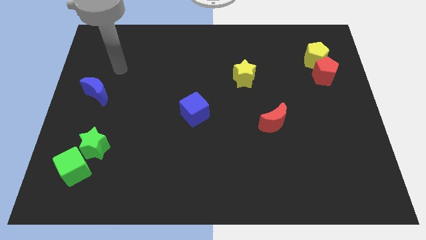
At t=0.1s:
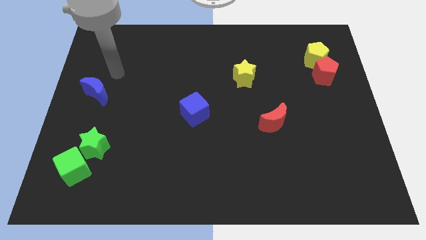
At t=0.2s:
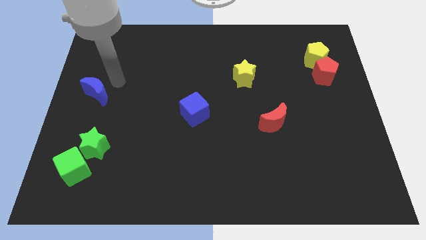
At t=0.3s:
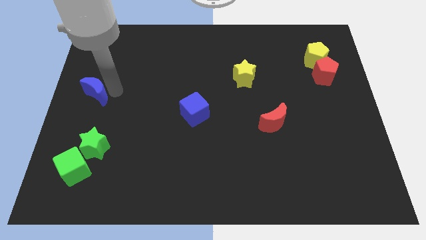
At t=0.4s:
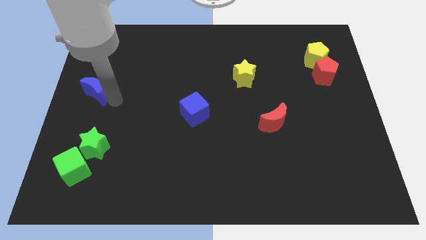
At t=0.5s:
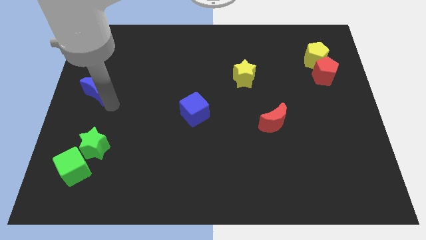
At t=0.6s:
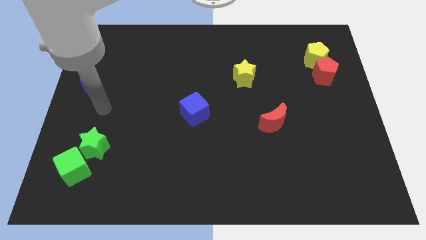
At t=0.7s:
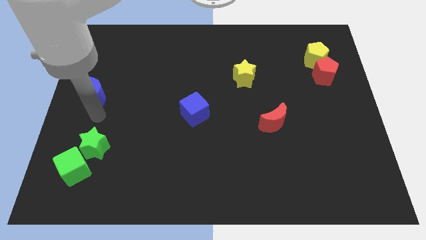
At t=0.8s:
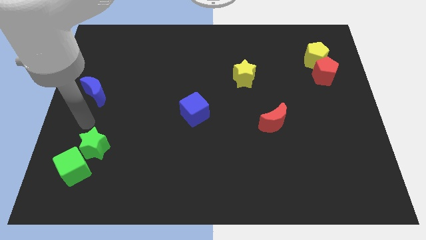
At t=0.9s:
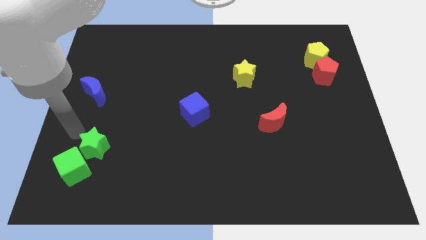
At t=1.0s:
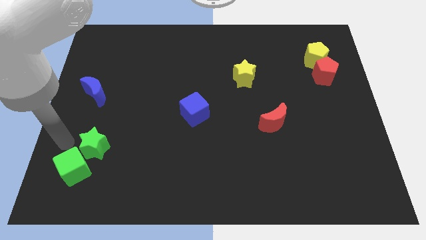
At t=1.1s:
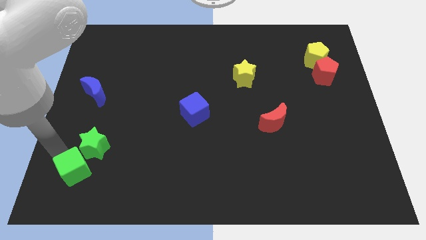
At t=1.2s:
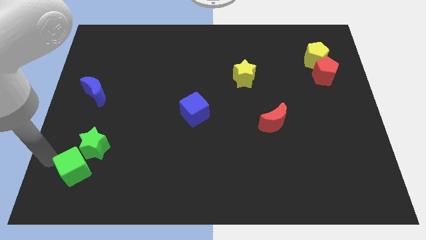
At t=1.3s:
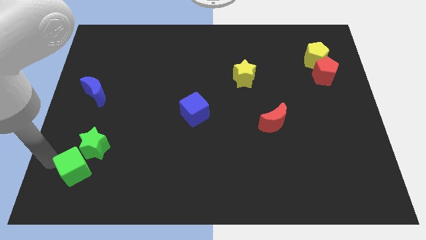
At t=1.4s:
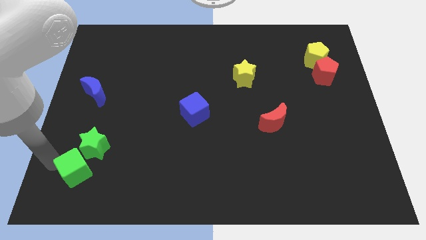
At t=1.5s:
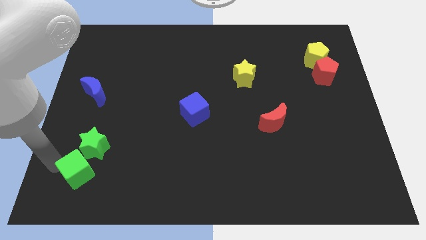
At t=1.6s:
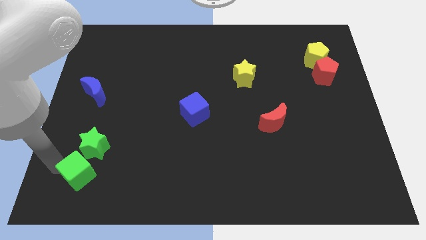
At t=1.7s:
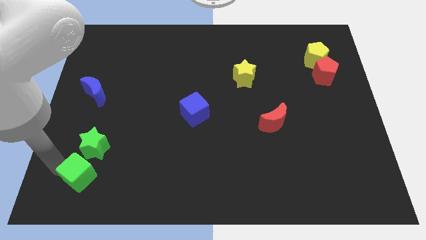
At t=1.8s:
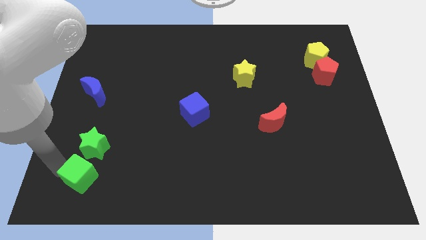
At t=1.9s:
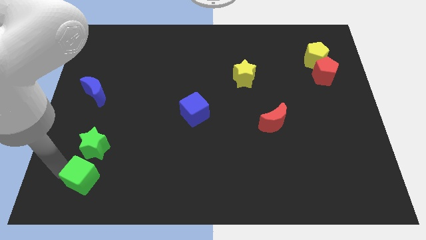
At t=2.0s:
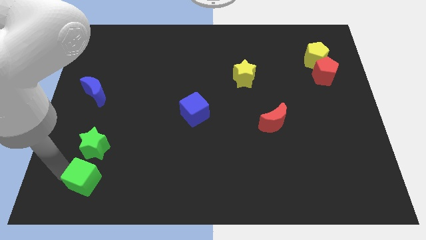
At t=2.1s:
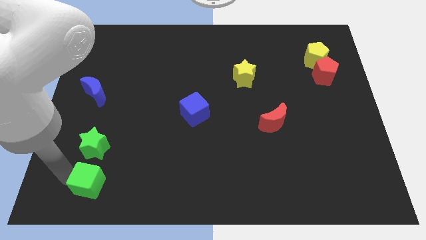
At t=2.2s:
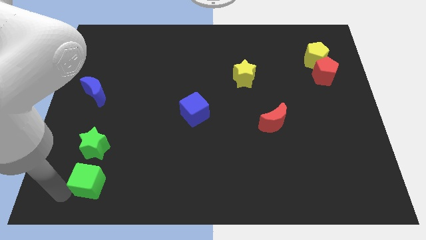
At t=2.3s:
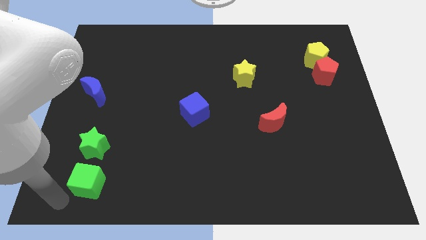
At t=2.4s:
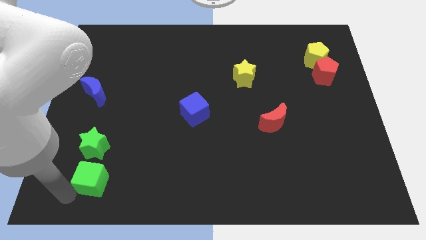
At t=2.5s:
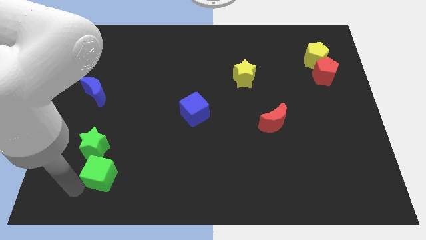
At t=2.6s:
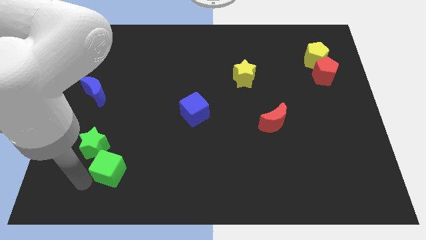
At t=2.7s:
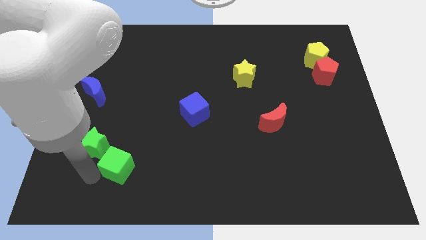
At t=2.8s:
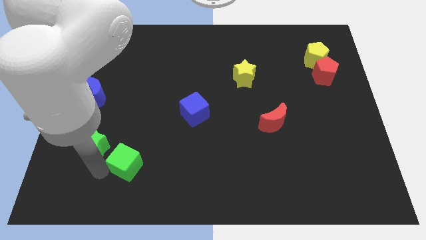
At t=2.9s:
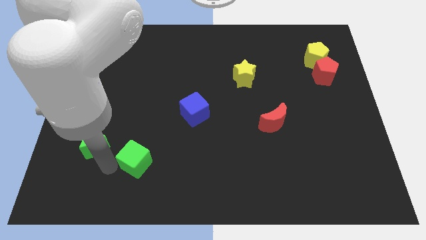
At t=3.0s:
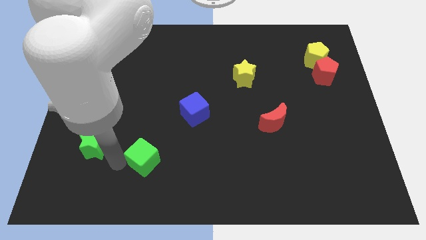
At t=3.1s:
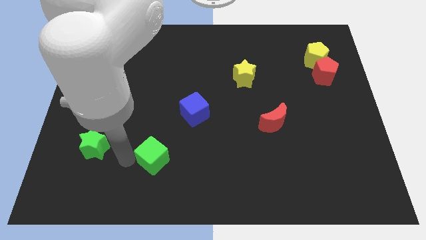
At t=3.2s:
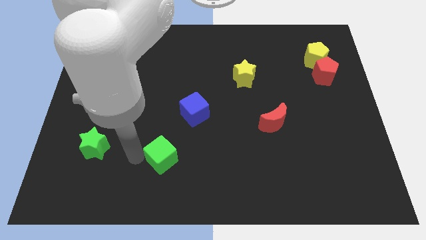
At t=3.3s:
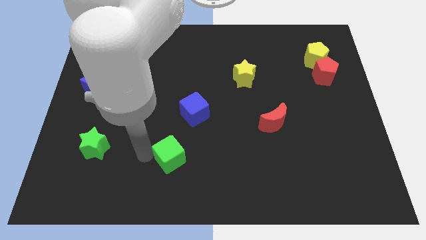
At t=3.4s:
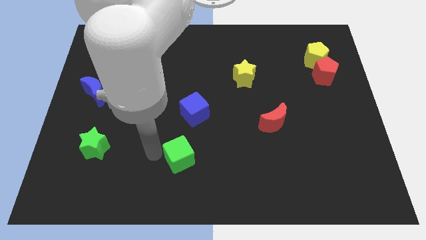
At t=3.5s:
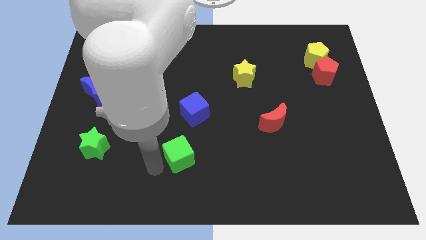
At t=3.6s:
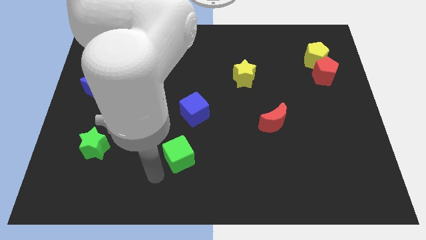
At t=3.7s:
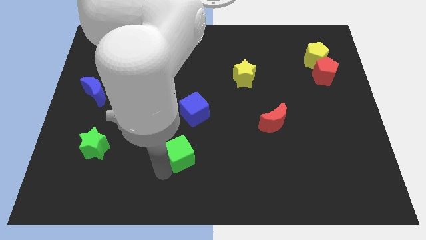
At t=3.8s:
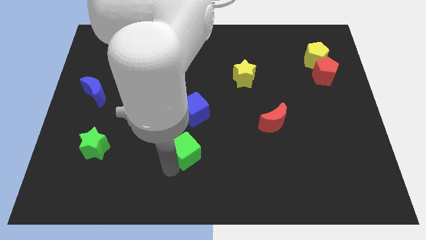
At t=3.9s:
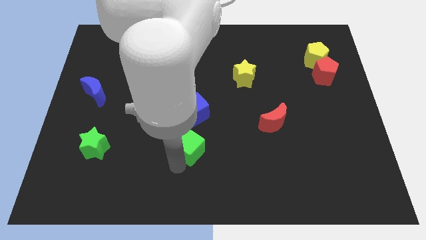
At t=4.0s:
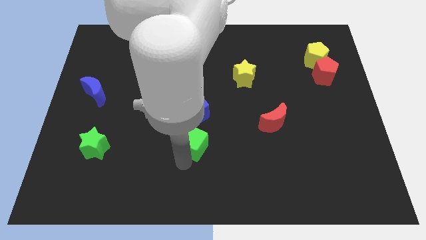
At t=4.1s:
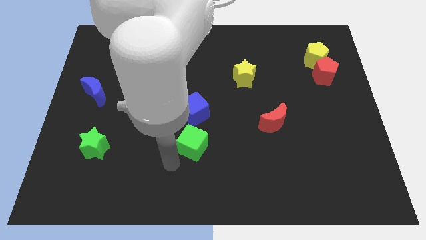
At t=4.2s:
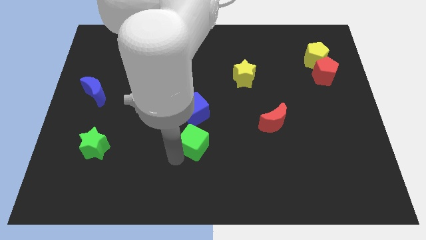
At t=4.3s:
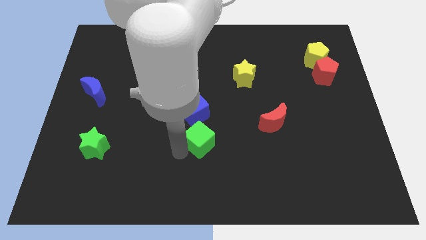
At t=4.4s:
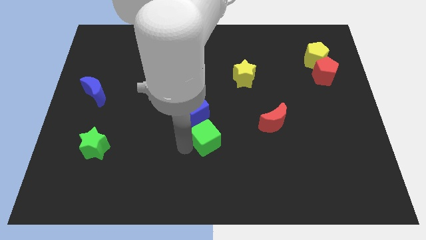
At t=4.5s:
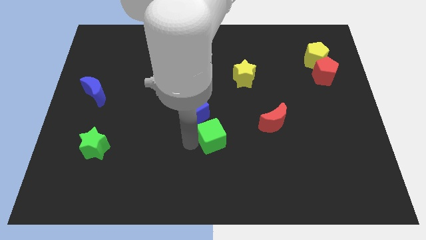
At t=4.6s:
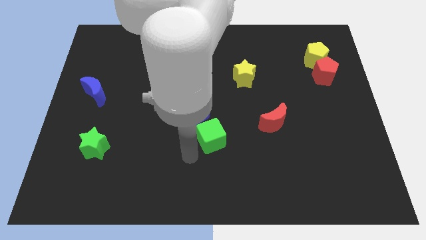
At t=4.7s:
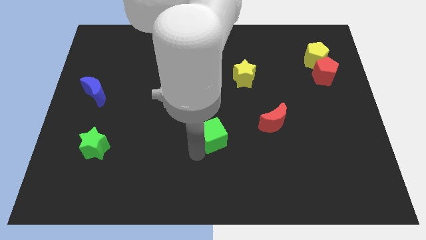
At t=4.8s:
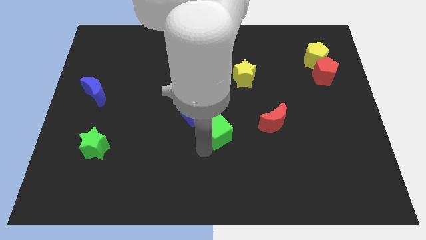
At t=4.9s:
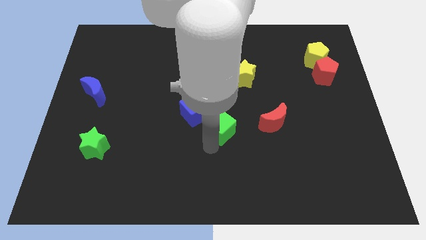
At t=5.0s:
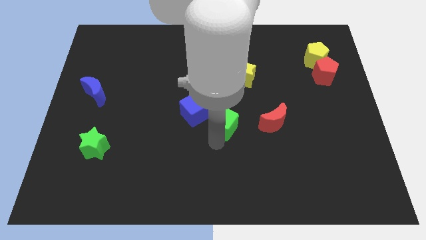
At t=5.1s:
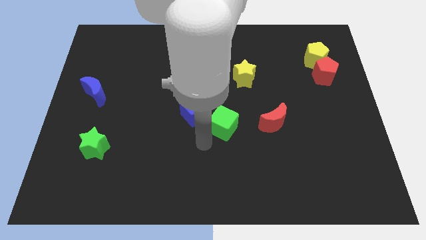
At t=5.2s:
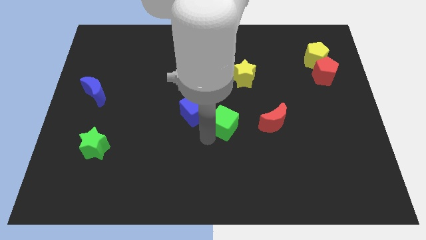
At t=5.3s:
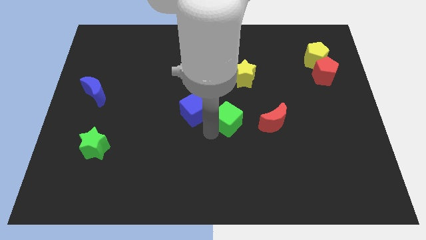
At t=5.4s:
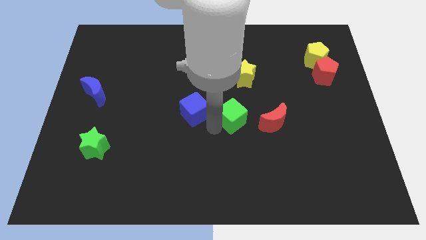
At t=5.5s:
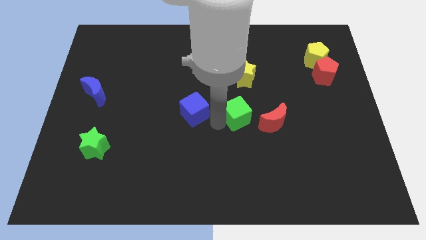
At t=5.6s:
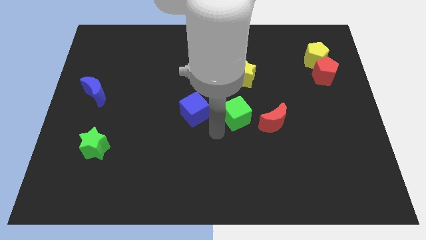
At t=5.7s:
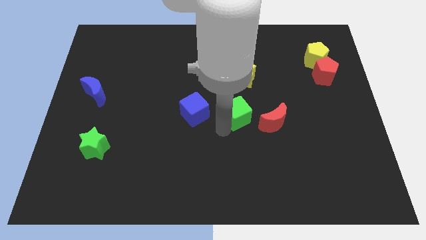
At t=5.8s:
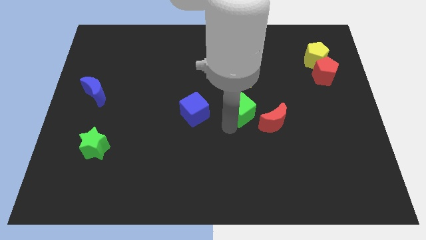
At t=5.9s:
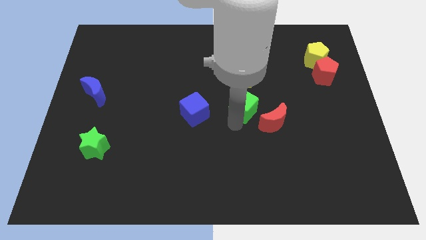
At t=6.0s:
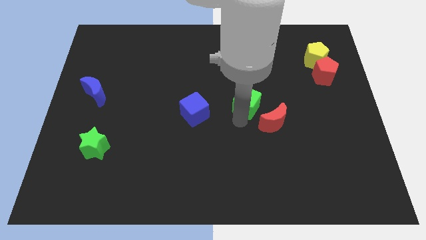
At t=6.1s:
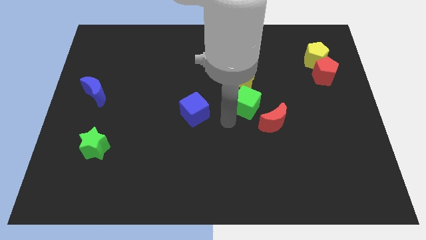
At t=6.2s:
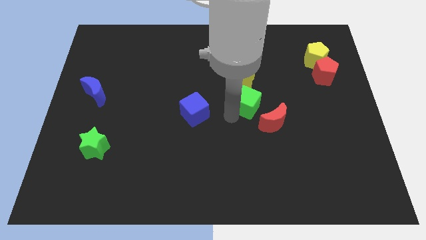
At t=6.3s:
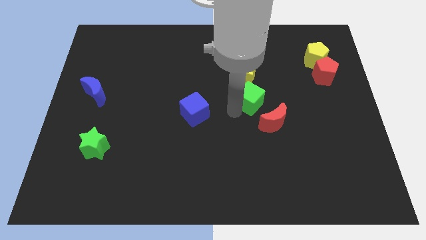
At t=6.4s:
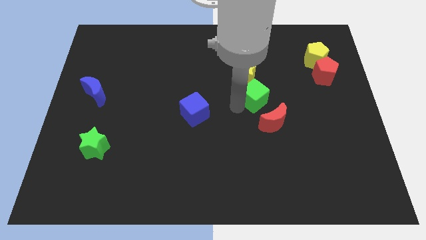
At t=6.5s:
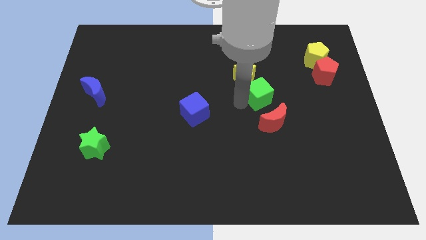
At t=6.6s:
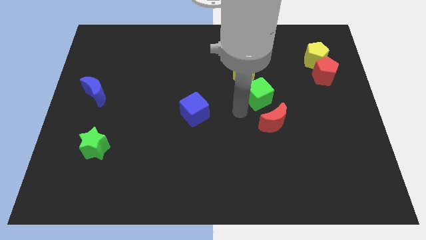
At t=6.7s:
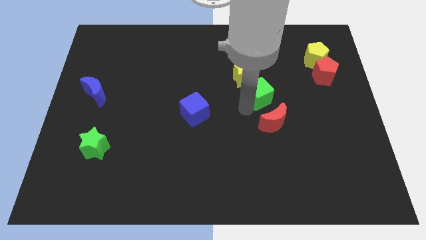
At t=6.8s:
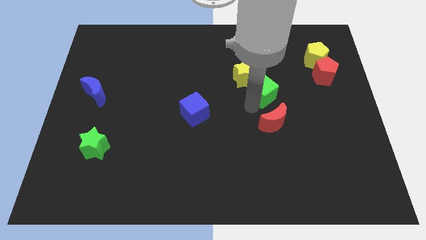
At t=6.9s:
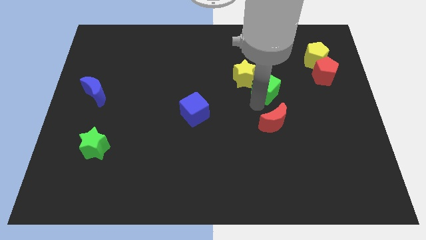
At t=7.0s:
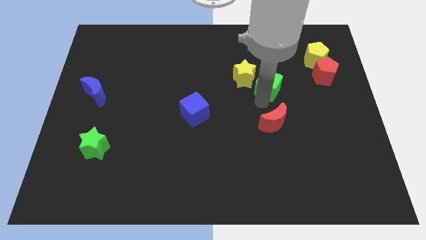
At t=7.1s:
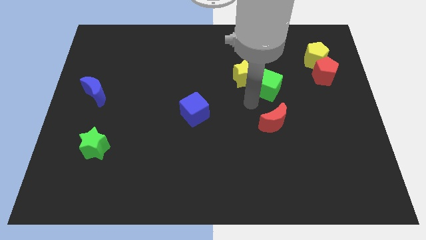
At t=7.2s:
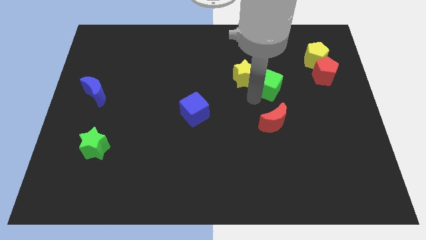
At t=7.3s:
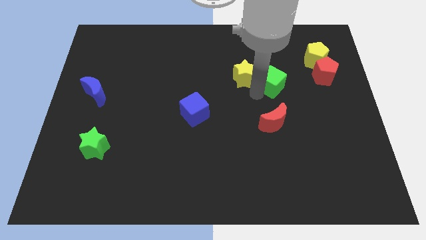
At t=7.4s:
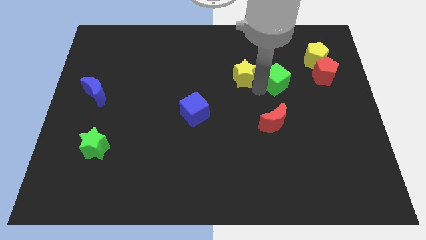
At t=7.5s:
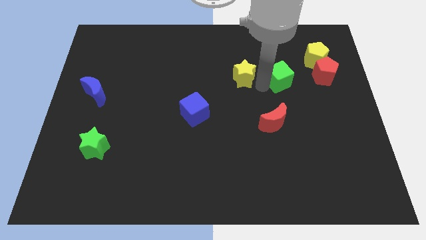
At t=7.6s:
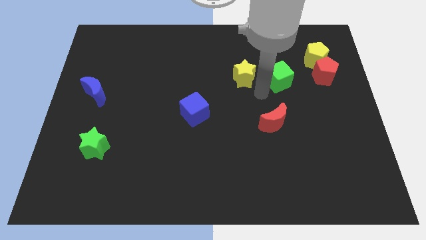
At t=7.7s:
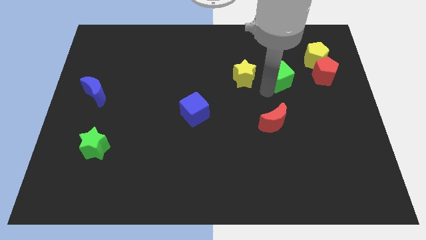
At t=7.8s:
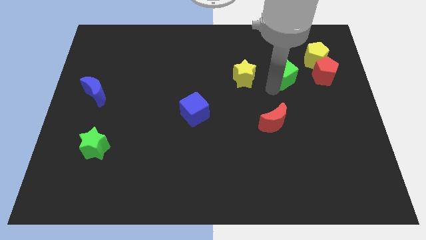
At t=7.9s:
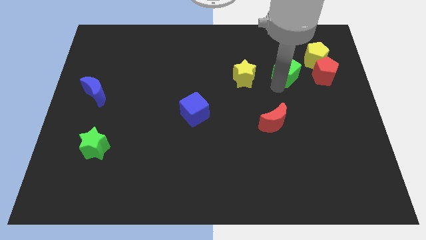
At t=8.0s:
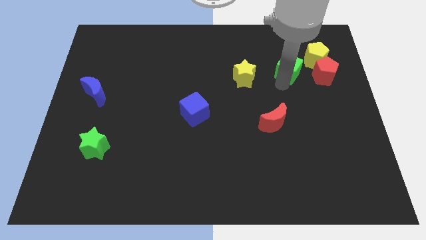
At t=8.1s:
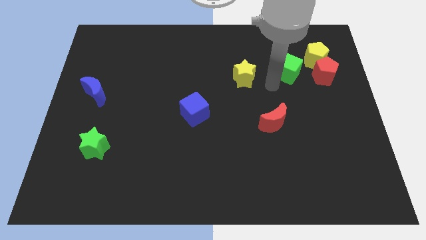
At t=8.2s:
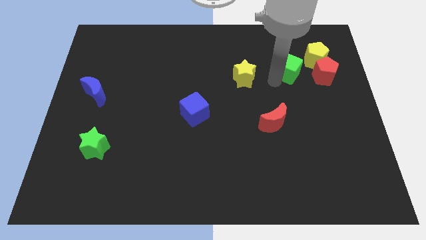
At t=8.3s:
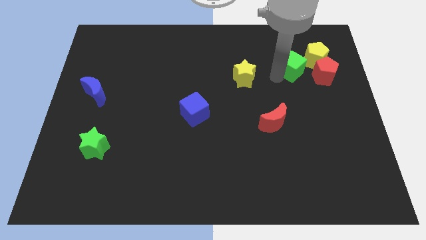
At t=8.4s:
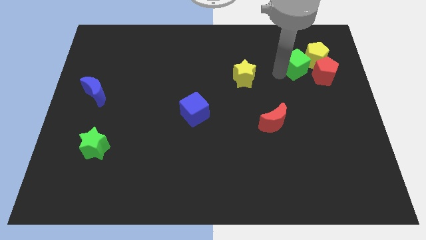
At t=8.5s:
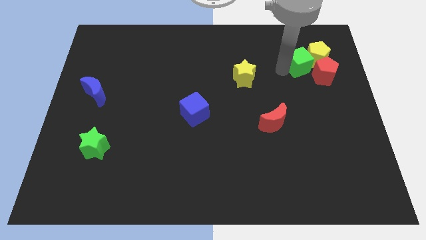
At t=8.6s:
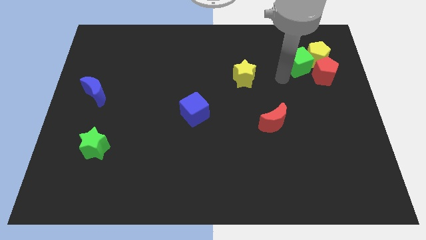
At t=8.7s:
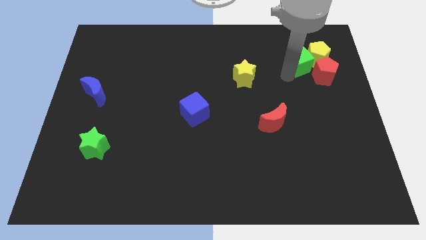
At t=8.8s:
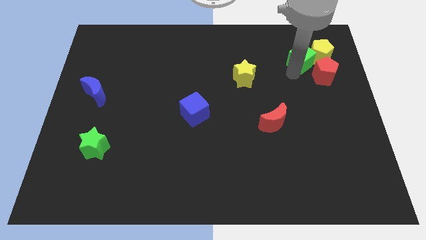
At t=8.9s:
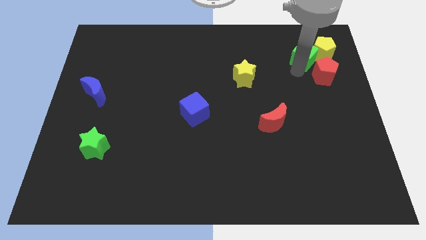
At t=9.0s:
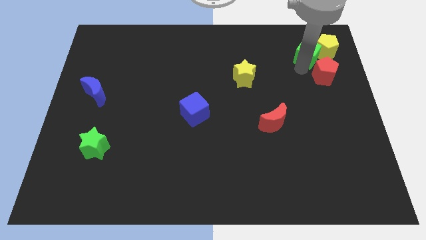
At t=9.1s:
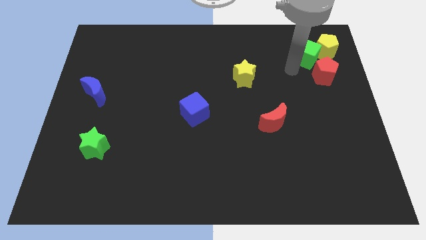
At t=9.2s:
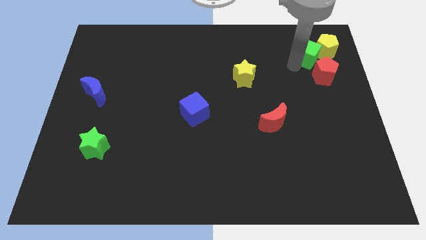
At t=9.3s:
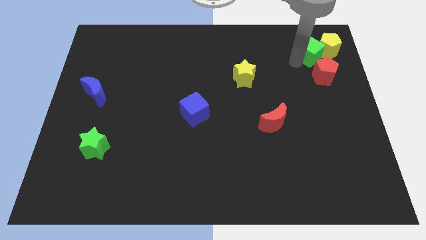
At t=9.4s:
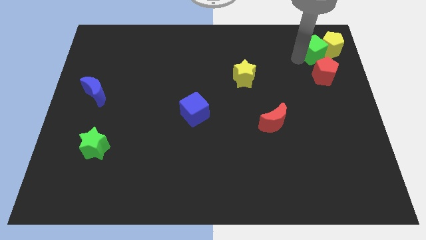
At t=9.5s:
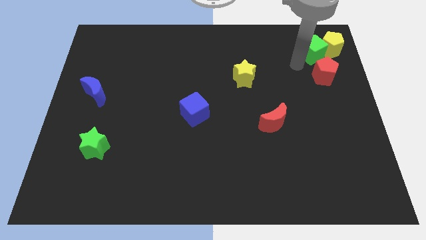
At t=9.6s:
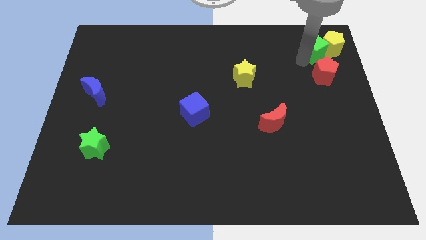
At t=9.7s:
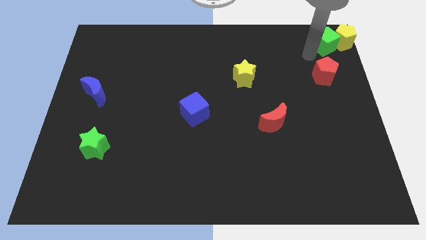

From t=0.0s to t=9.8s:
push the green cube to the top right corner
